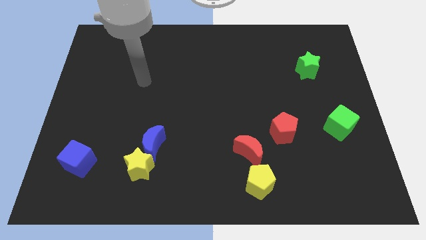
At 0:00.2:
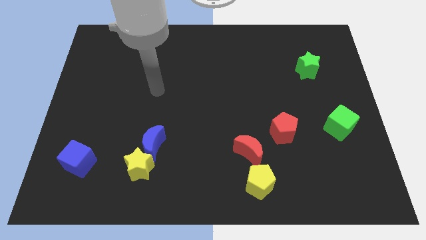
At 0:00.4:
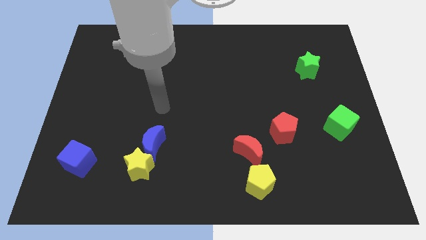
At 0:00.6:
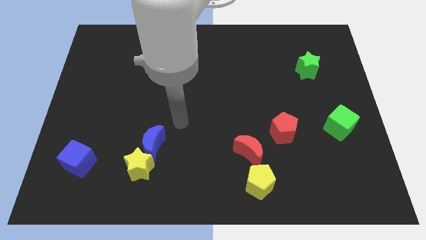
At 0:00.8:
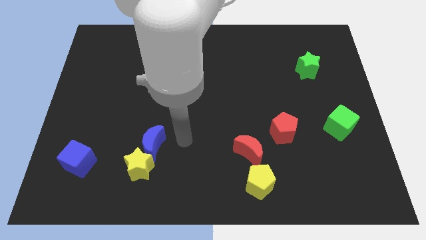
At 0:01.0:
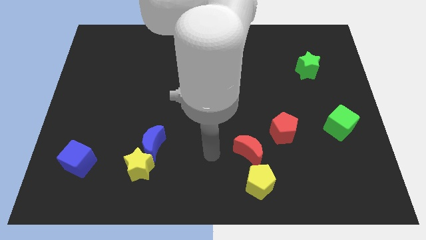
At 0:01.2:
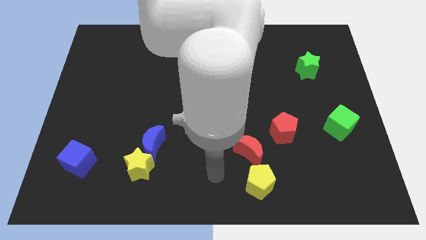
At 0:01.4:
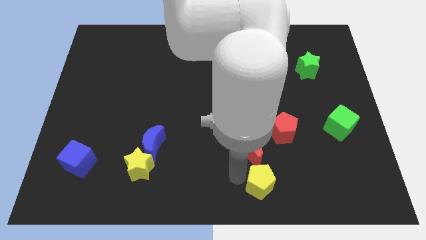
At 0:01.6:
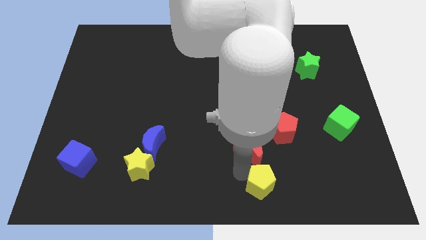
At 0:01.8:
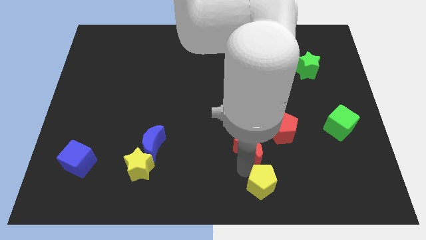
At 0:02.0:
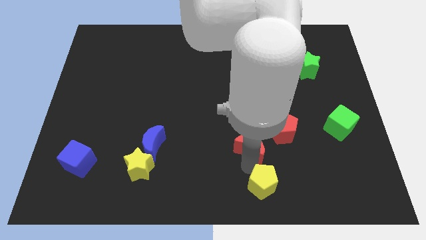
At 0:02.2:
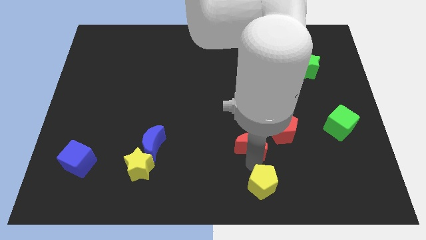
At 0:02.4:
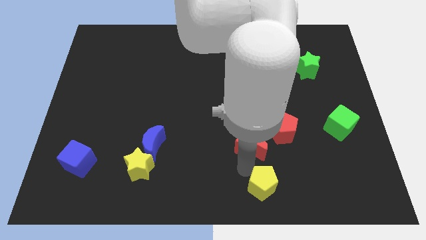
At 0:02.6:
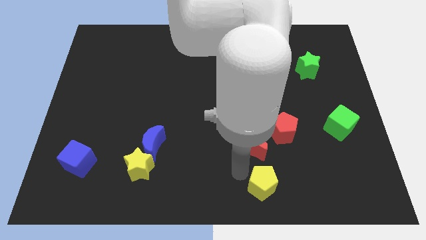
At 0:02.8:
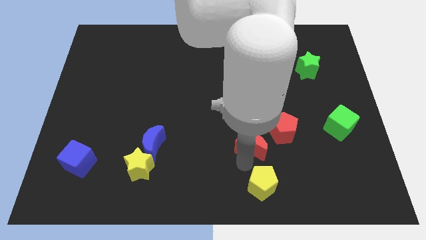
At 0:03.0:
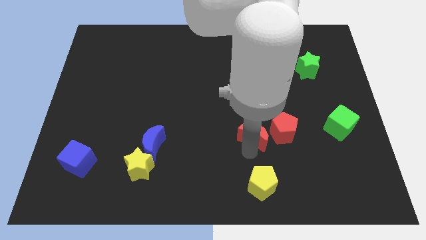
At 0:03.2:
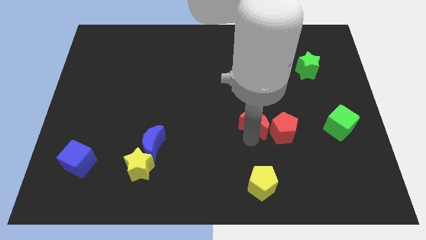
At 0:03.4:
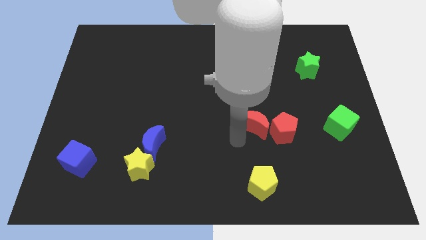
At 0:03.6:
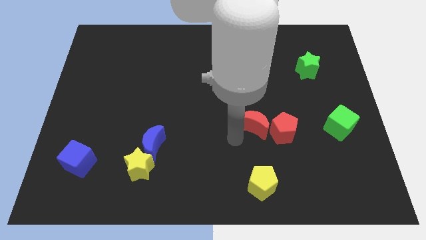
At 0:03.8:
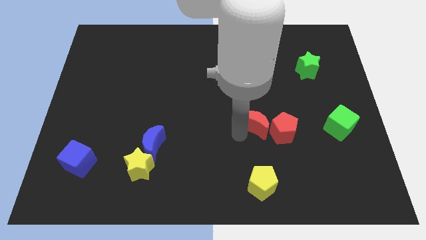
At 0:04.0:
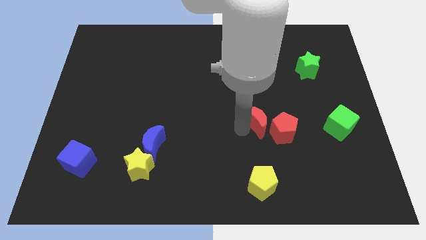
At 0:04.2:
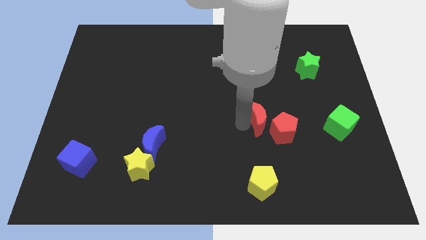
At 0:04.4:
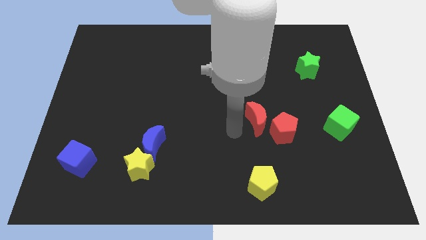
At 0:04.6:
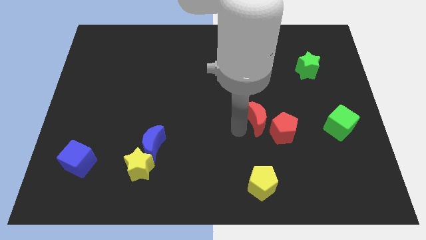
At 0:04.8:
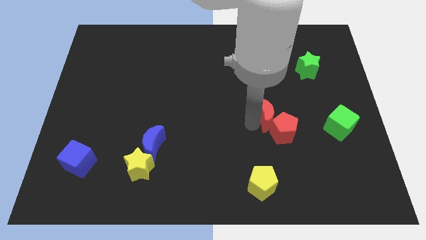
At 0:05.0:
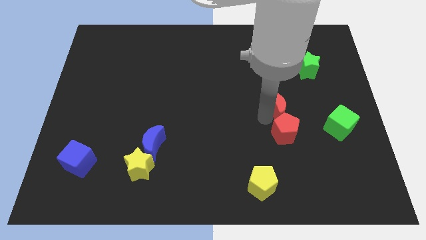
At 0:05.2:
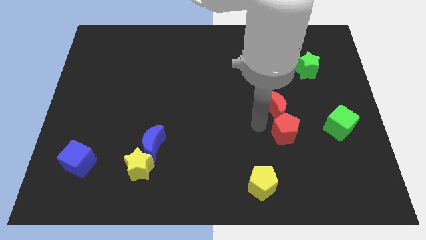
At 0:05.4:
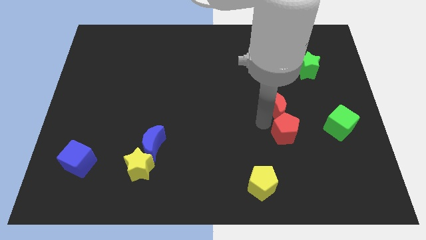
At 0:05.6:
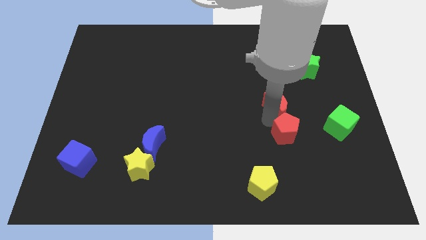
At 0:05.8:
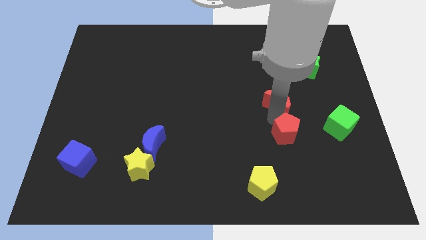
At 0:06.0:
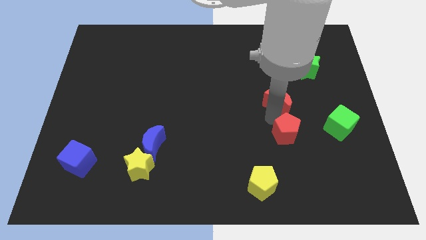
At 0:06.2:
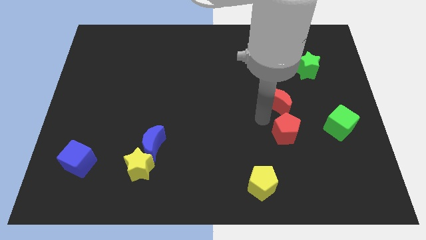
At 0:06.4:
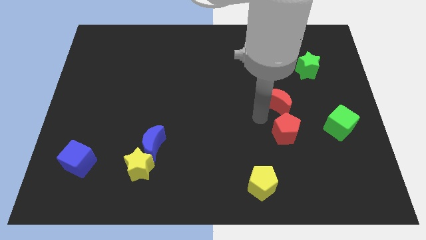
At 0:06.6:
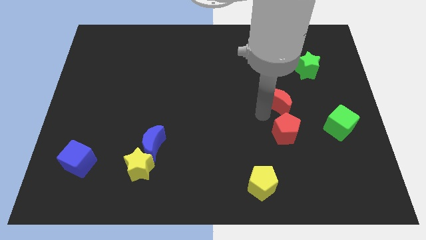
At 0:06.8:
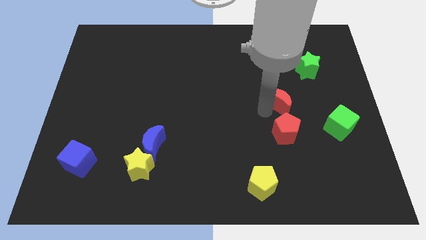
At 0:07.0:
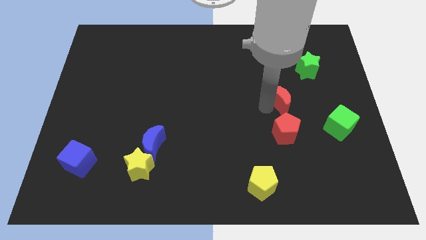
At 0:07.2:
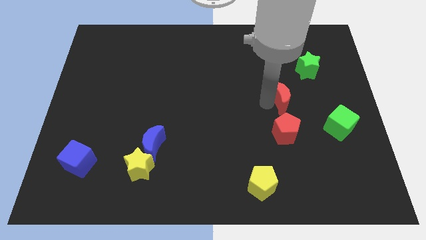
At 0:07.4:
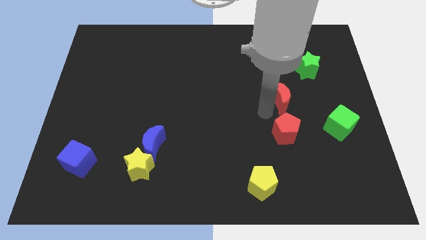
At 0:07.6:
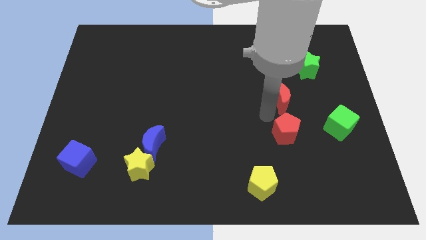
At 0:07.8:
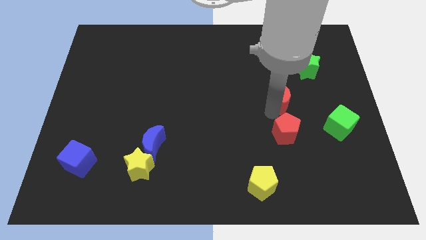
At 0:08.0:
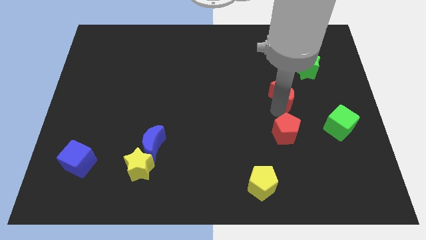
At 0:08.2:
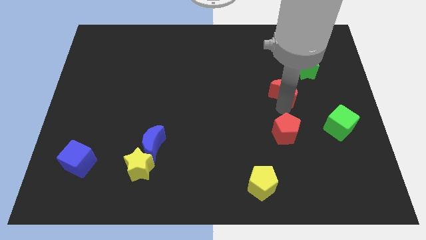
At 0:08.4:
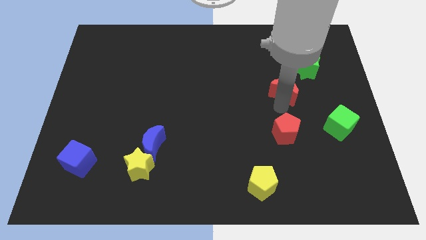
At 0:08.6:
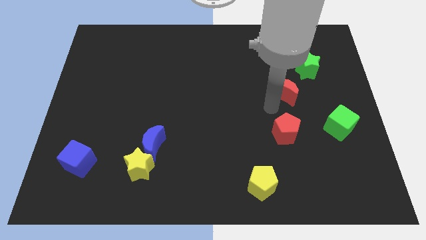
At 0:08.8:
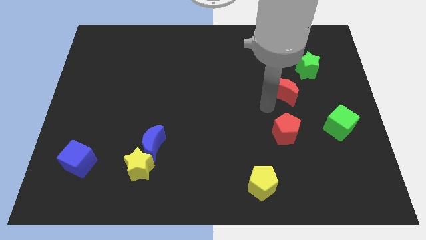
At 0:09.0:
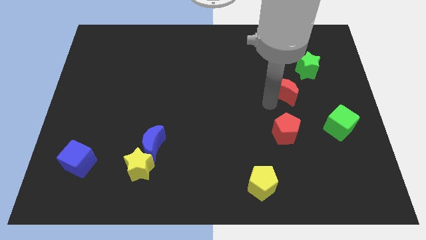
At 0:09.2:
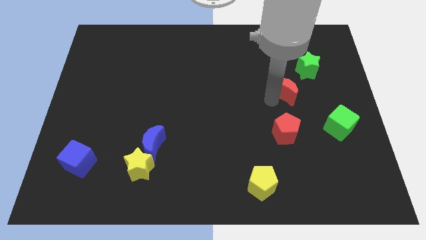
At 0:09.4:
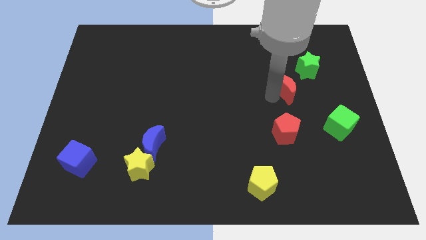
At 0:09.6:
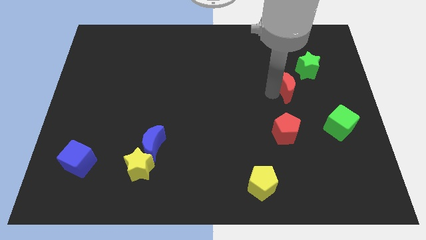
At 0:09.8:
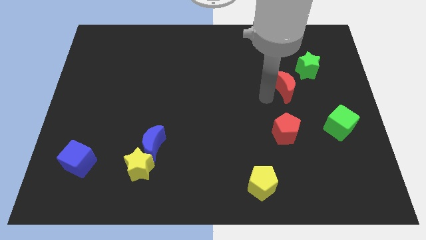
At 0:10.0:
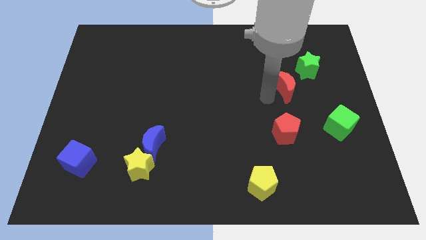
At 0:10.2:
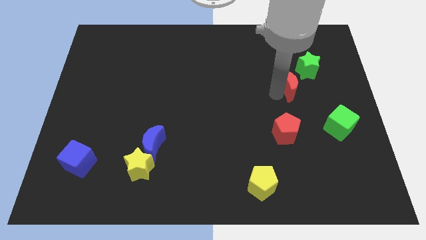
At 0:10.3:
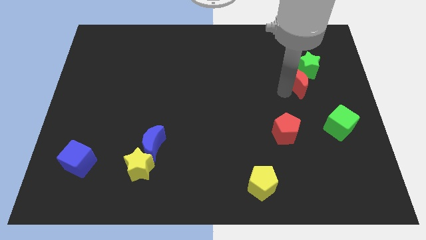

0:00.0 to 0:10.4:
put the red moon next to the green star

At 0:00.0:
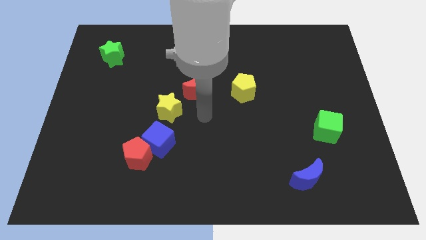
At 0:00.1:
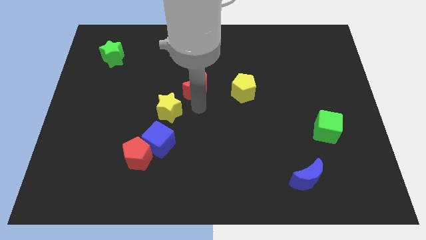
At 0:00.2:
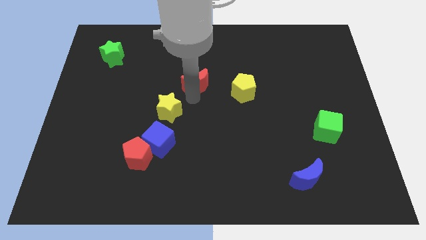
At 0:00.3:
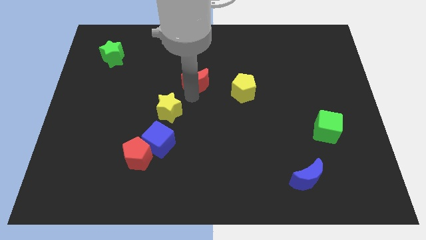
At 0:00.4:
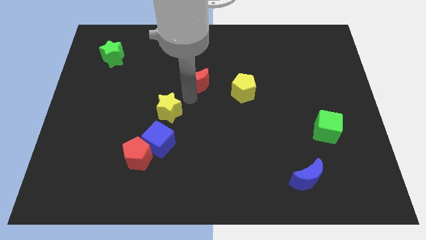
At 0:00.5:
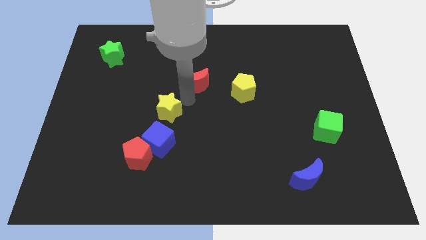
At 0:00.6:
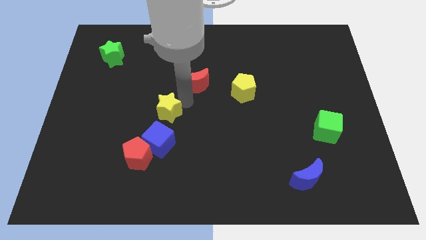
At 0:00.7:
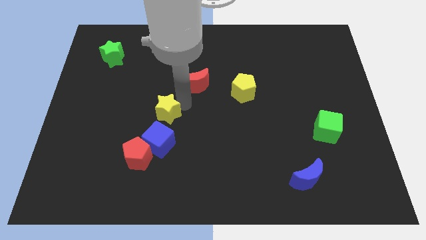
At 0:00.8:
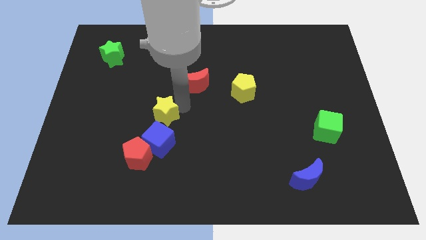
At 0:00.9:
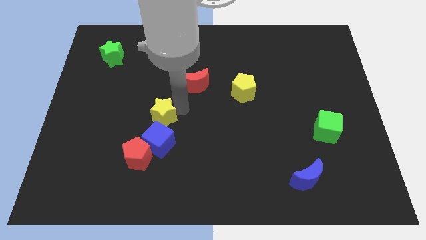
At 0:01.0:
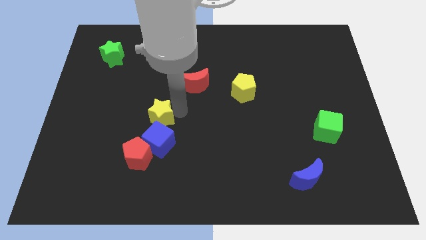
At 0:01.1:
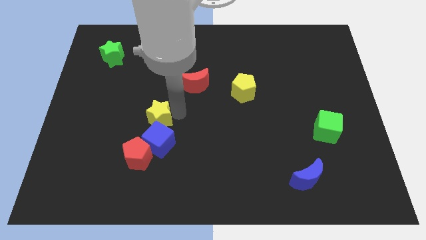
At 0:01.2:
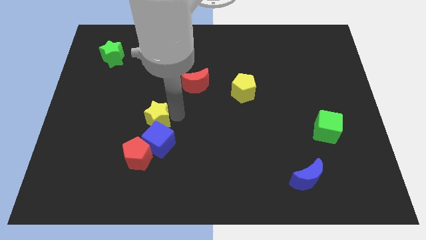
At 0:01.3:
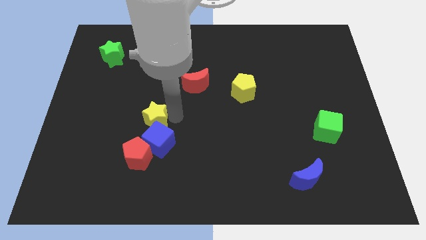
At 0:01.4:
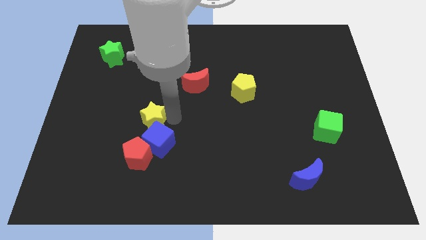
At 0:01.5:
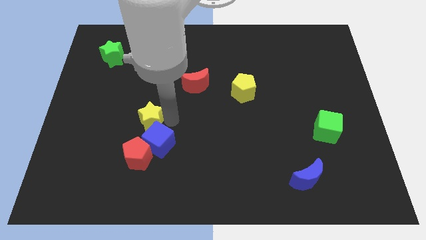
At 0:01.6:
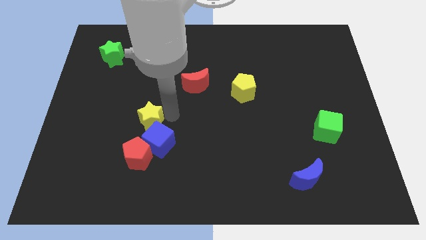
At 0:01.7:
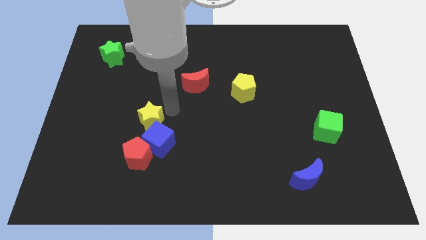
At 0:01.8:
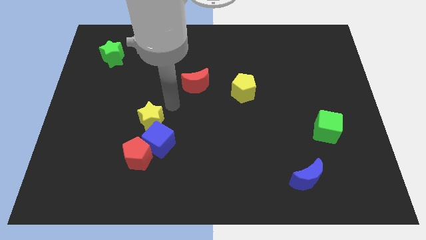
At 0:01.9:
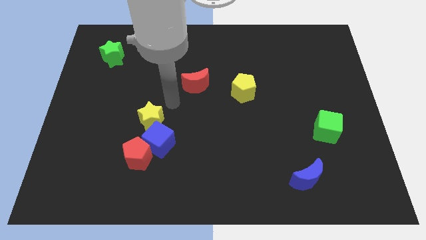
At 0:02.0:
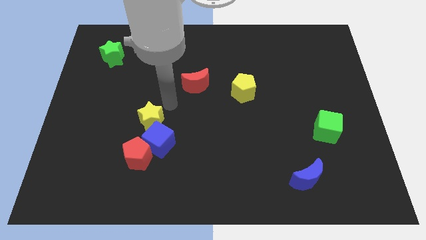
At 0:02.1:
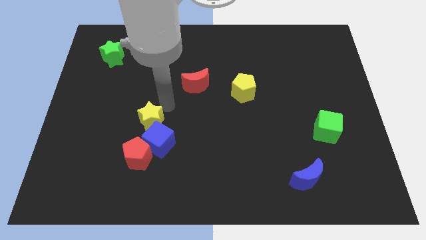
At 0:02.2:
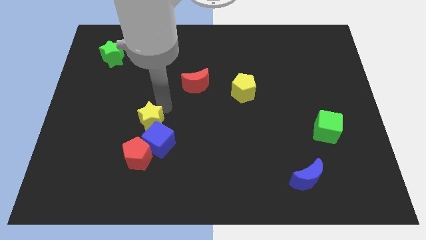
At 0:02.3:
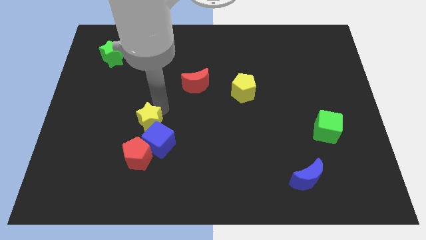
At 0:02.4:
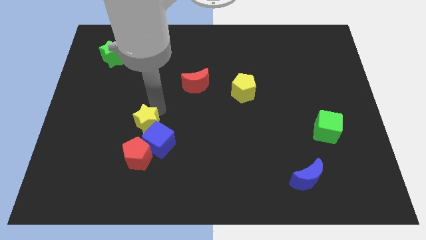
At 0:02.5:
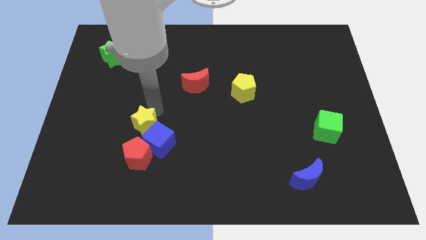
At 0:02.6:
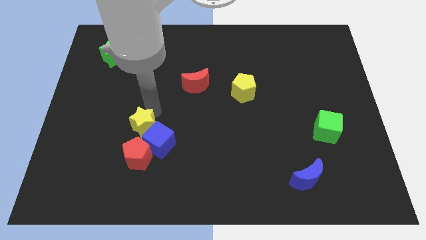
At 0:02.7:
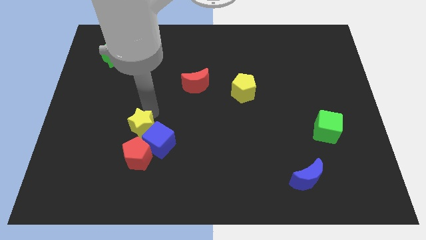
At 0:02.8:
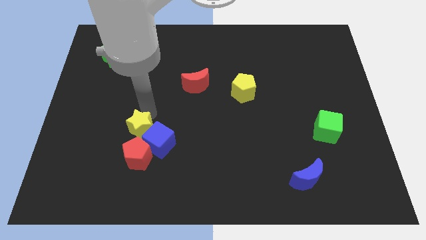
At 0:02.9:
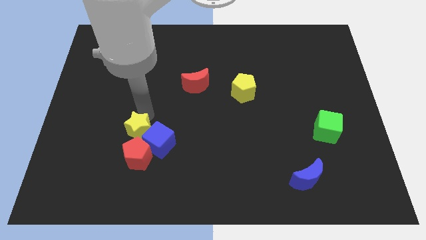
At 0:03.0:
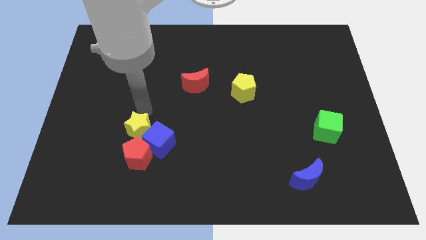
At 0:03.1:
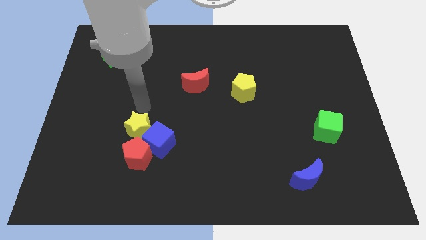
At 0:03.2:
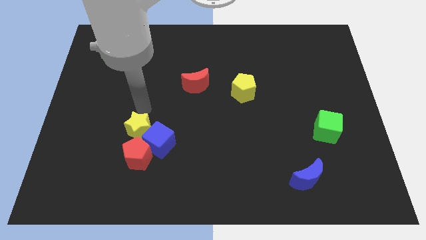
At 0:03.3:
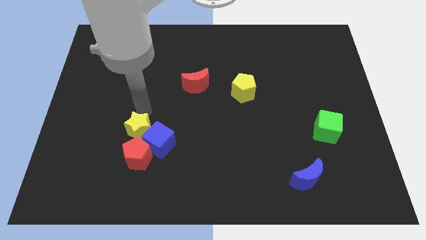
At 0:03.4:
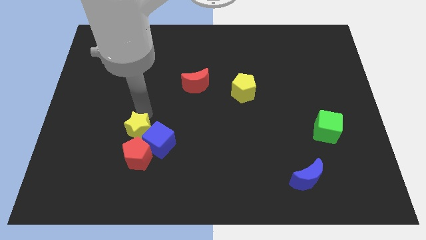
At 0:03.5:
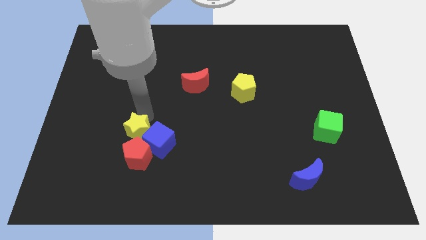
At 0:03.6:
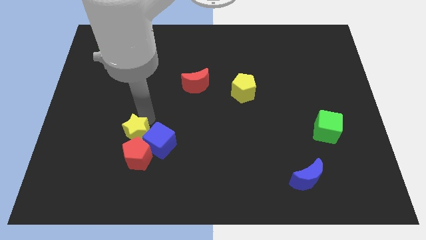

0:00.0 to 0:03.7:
move the yellow star towards the red pentagon
